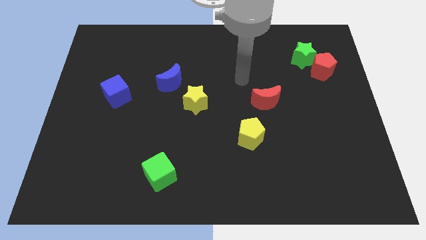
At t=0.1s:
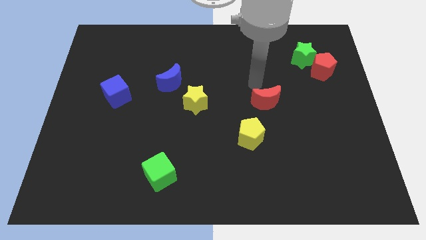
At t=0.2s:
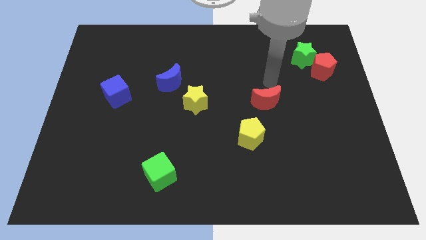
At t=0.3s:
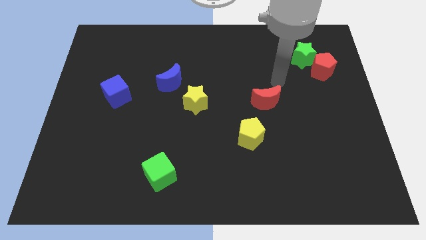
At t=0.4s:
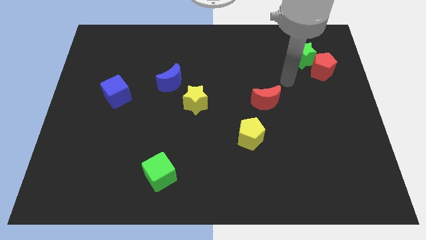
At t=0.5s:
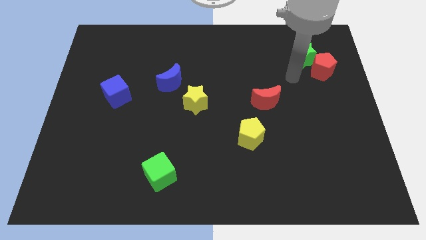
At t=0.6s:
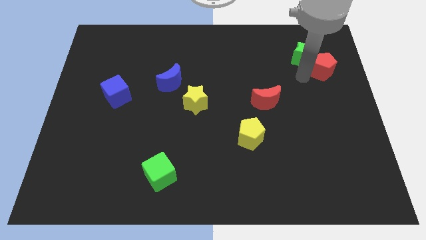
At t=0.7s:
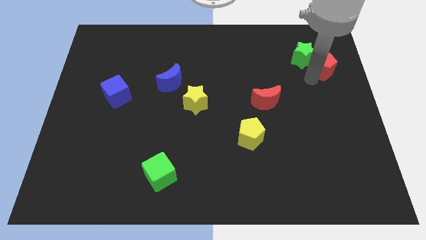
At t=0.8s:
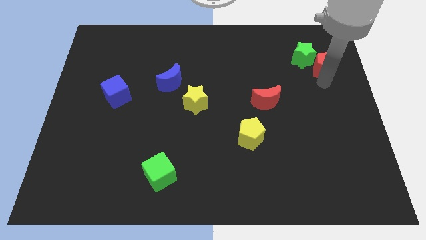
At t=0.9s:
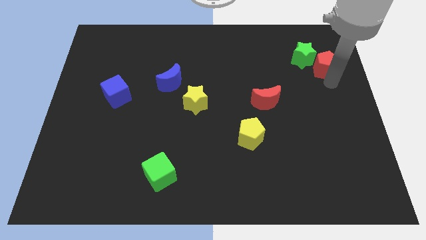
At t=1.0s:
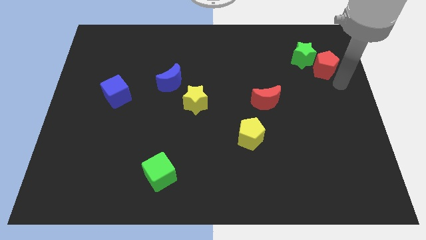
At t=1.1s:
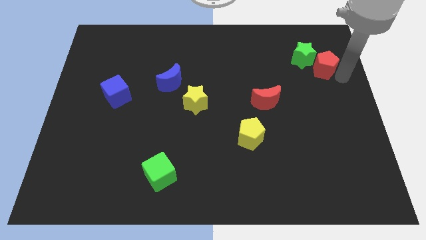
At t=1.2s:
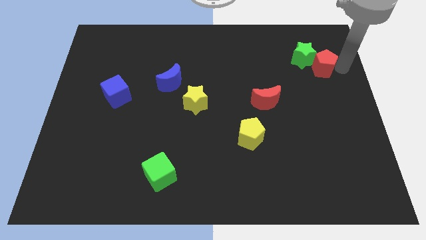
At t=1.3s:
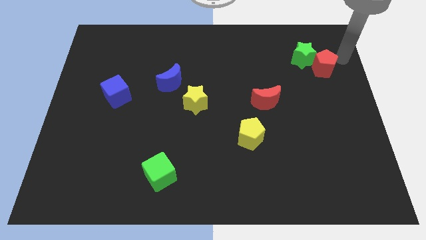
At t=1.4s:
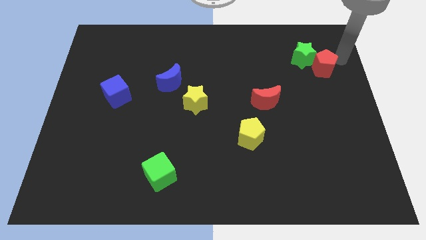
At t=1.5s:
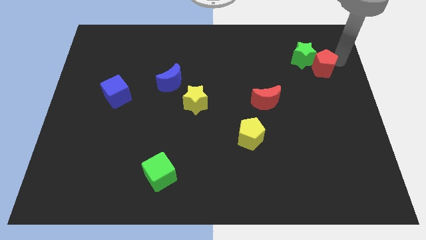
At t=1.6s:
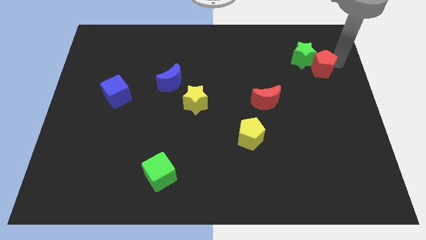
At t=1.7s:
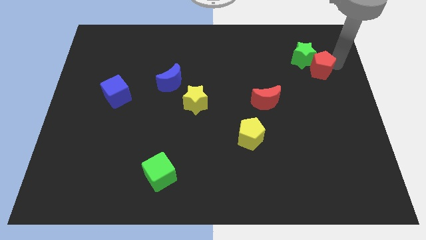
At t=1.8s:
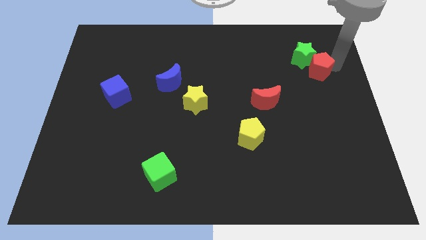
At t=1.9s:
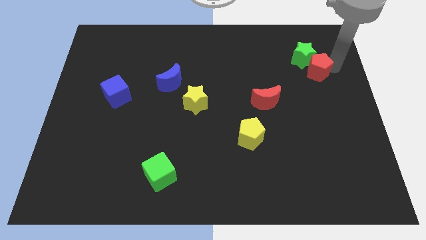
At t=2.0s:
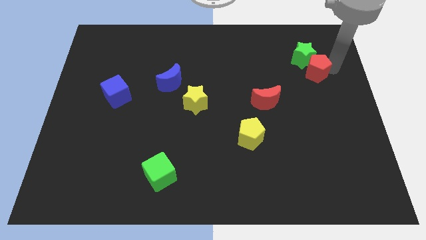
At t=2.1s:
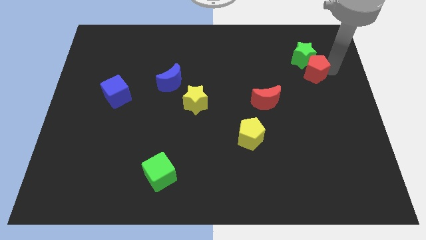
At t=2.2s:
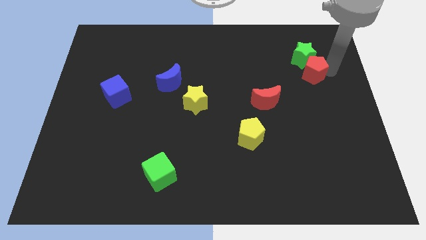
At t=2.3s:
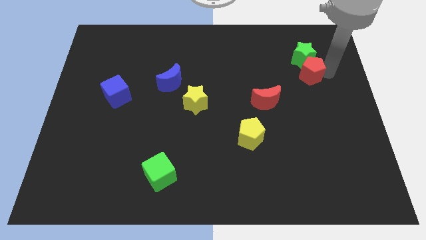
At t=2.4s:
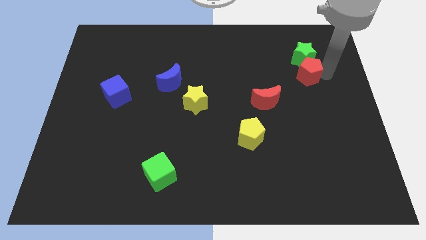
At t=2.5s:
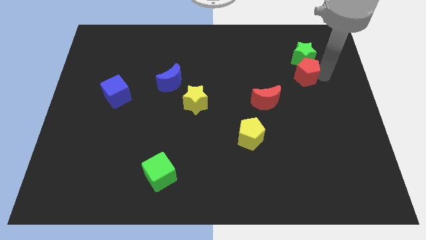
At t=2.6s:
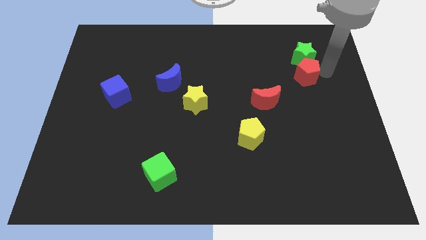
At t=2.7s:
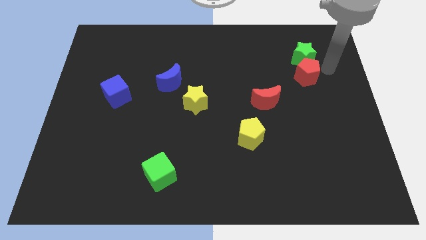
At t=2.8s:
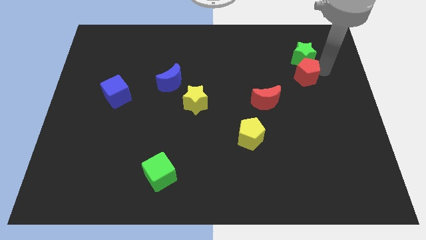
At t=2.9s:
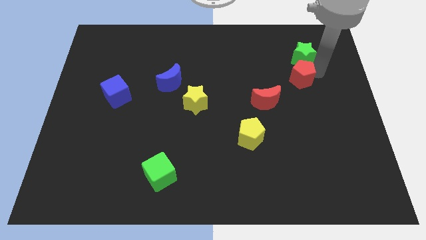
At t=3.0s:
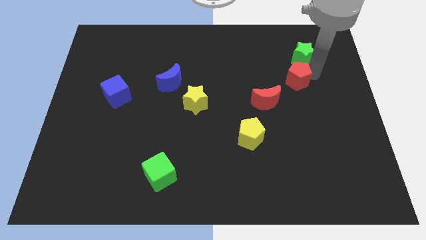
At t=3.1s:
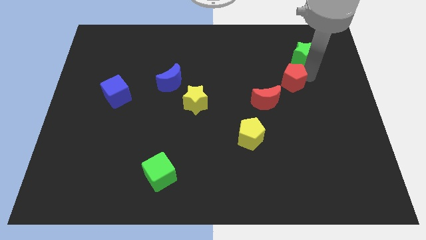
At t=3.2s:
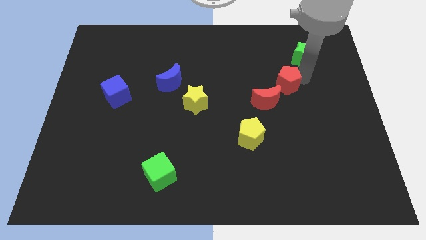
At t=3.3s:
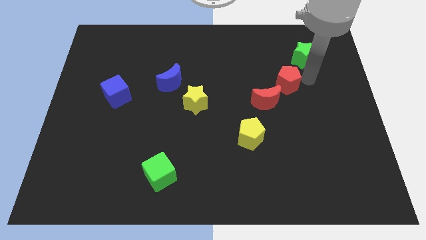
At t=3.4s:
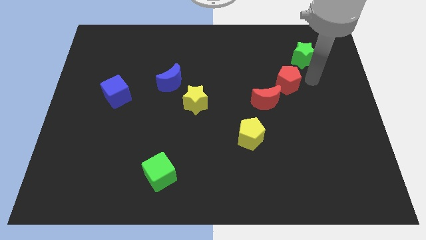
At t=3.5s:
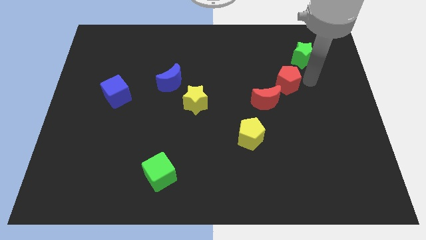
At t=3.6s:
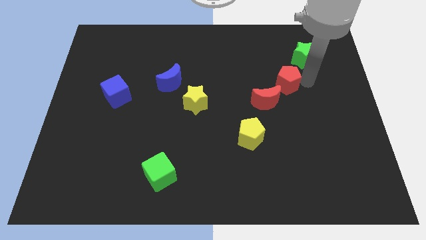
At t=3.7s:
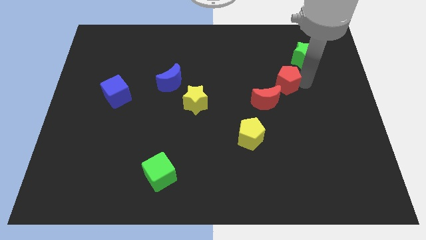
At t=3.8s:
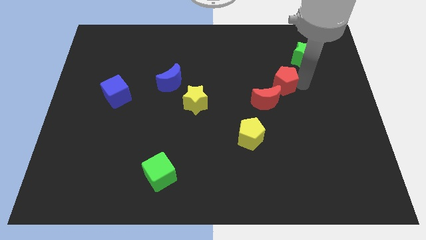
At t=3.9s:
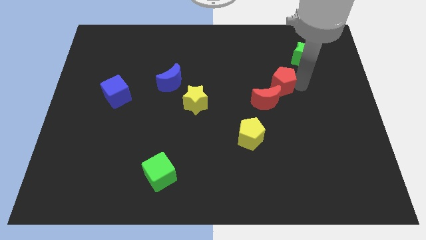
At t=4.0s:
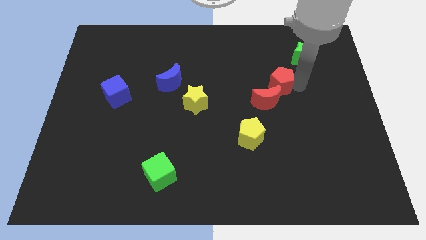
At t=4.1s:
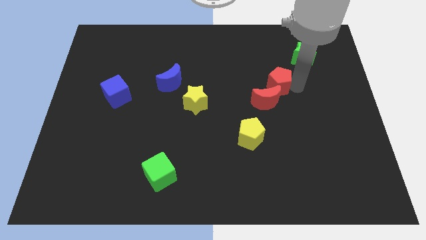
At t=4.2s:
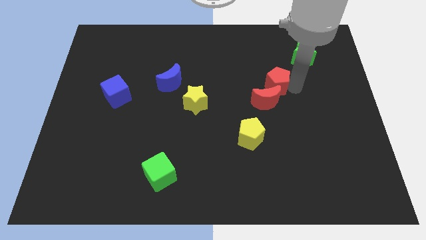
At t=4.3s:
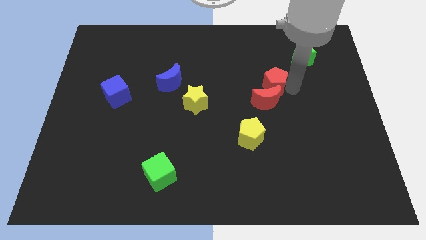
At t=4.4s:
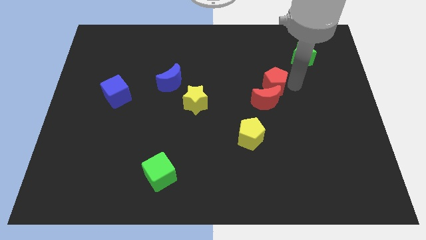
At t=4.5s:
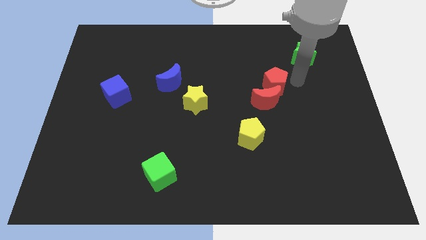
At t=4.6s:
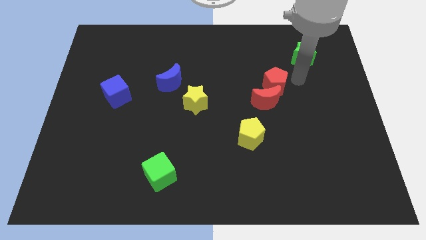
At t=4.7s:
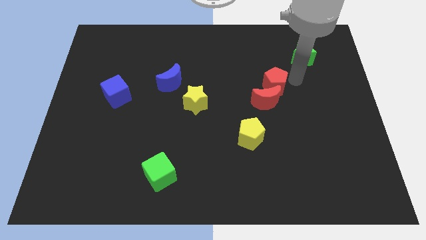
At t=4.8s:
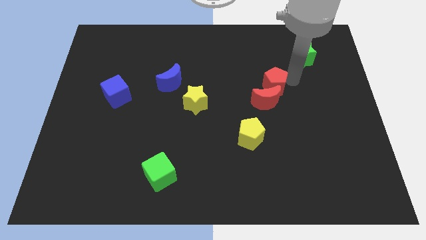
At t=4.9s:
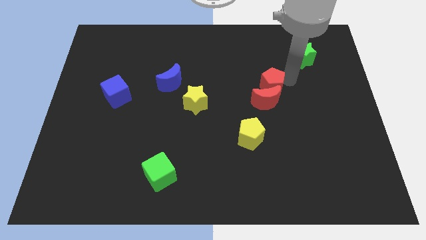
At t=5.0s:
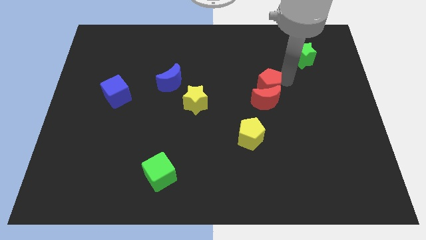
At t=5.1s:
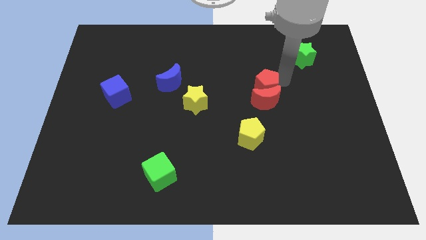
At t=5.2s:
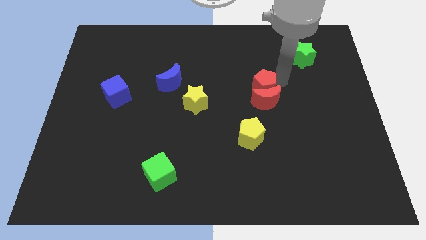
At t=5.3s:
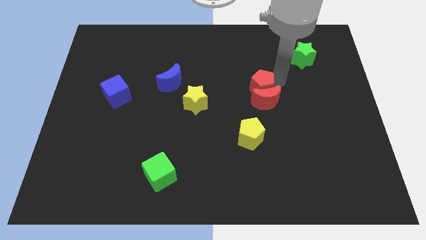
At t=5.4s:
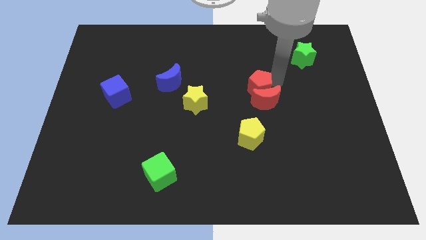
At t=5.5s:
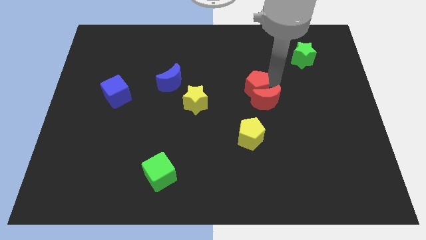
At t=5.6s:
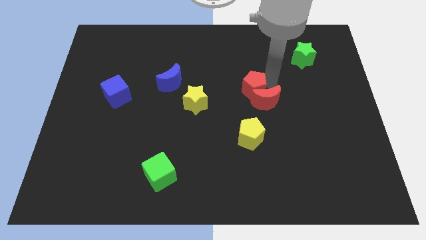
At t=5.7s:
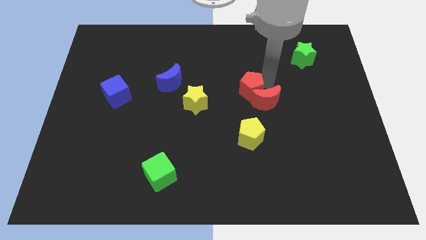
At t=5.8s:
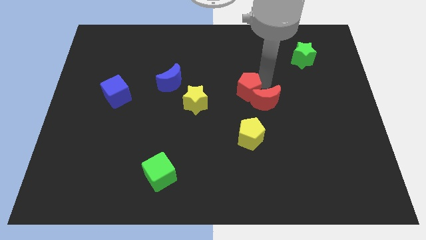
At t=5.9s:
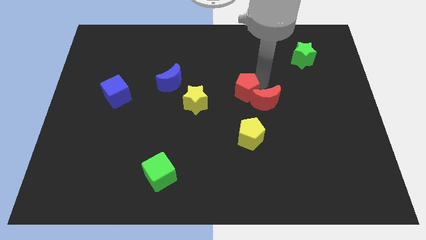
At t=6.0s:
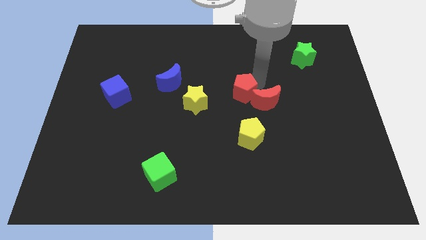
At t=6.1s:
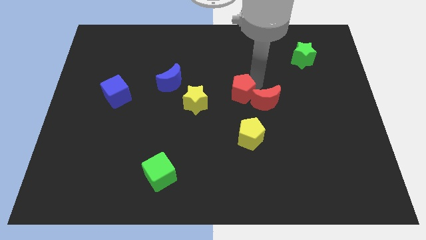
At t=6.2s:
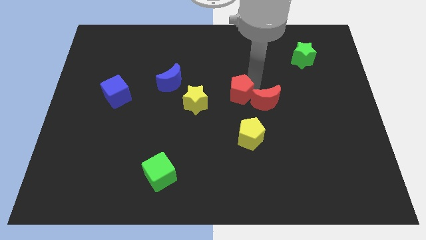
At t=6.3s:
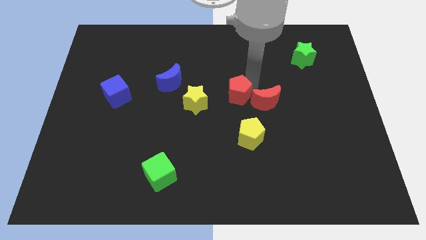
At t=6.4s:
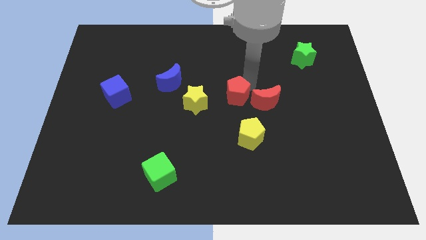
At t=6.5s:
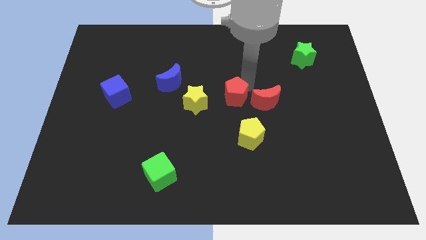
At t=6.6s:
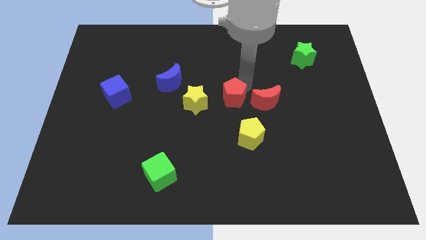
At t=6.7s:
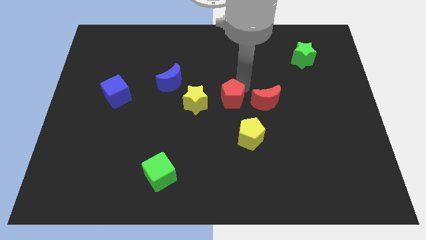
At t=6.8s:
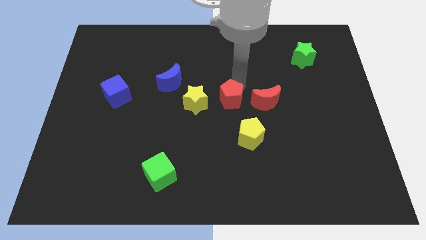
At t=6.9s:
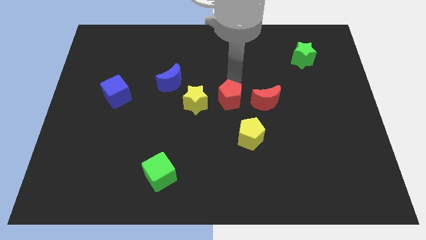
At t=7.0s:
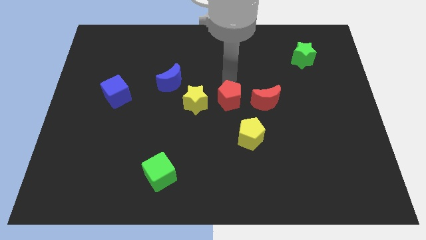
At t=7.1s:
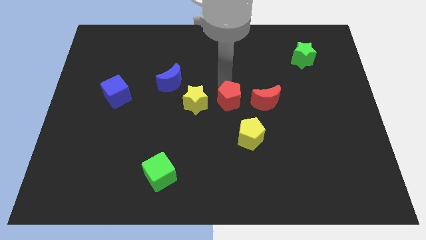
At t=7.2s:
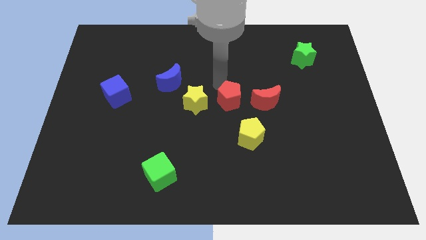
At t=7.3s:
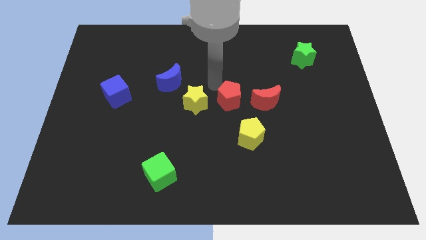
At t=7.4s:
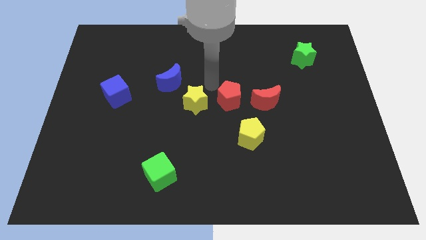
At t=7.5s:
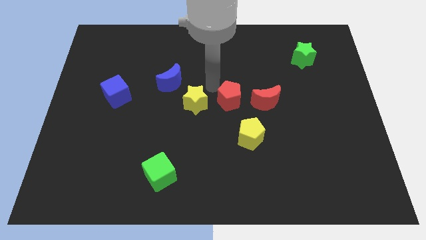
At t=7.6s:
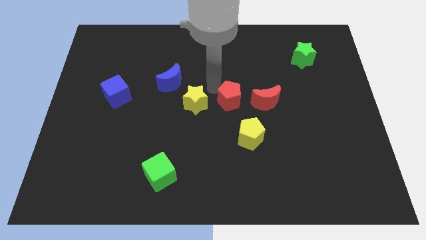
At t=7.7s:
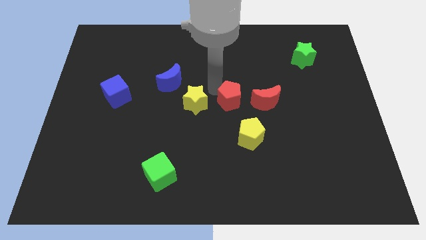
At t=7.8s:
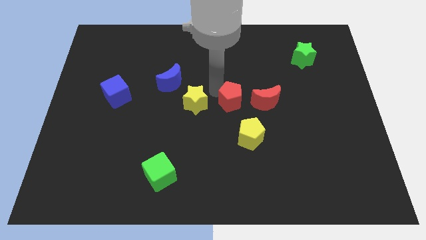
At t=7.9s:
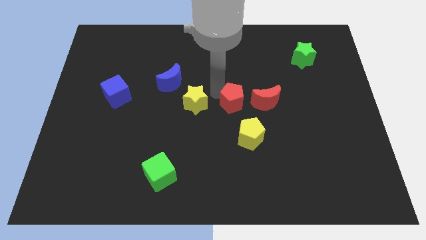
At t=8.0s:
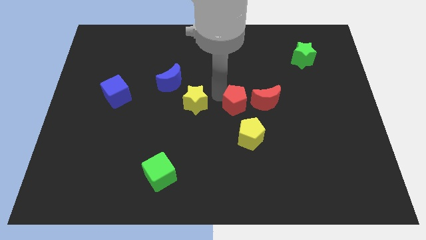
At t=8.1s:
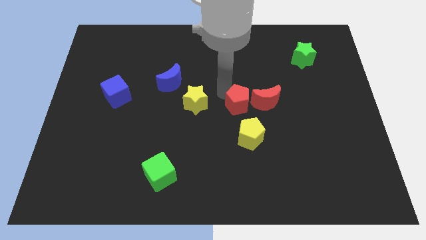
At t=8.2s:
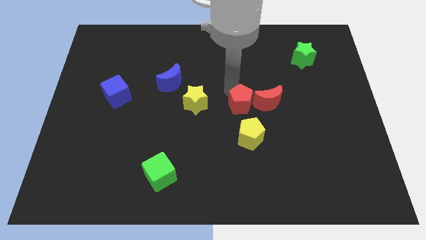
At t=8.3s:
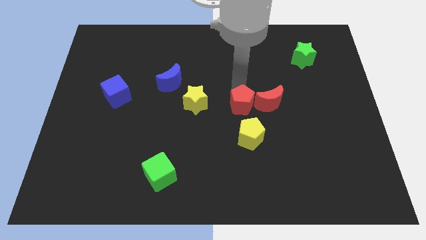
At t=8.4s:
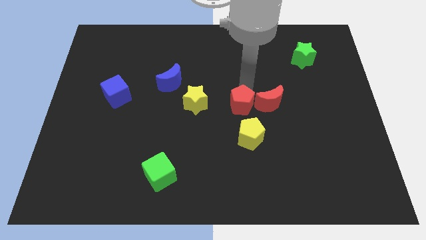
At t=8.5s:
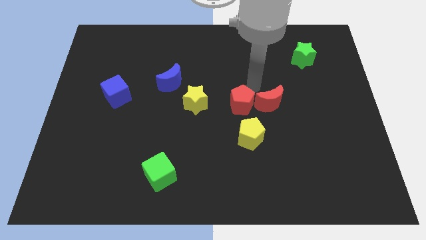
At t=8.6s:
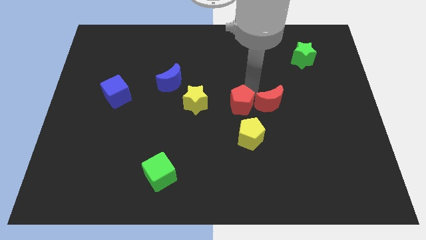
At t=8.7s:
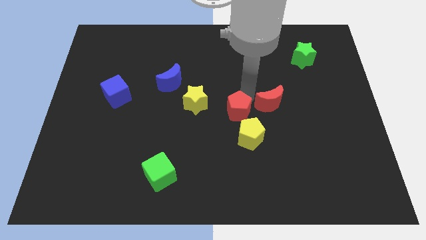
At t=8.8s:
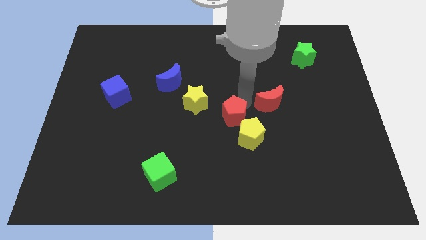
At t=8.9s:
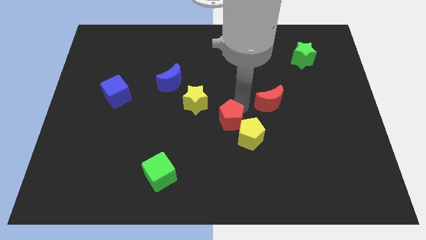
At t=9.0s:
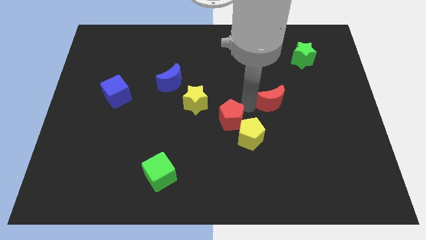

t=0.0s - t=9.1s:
slide the red pentagon to the left of the yellow pentagon
